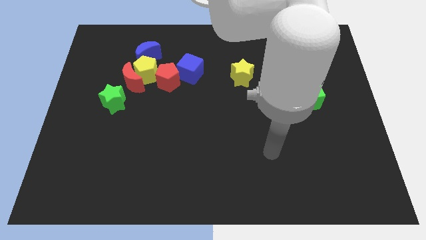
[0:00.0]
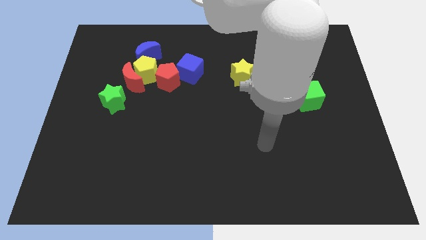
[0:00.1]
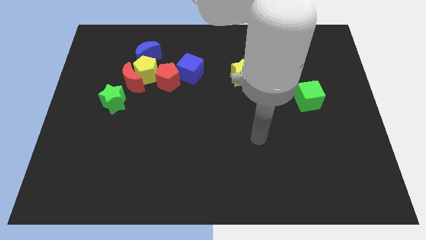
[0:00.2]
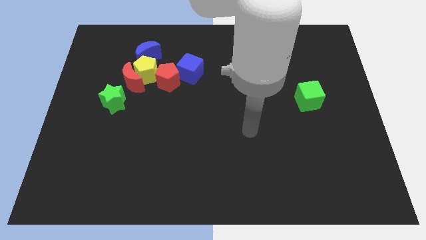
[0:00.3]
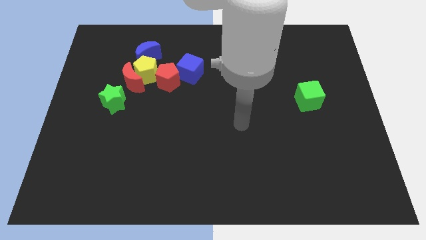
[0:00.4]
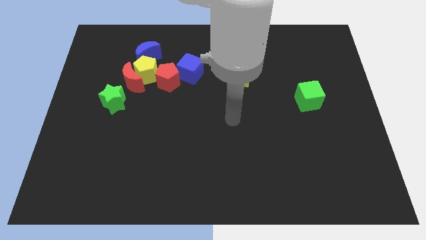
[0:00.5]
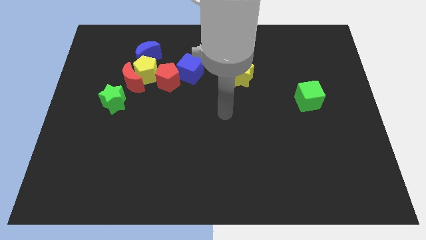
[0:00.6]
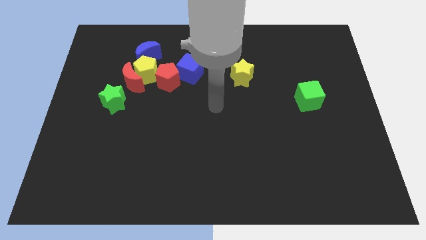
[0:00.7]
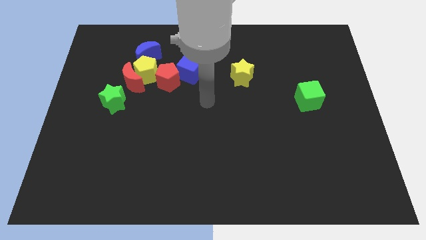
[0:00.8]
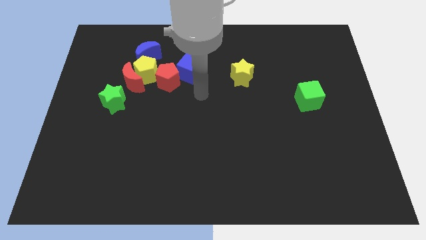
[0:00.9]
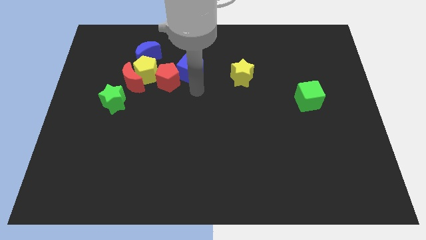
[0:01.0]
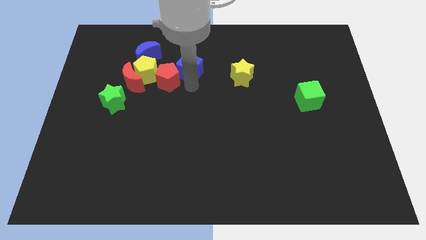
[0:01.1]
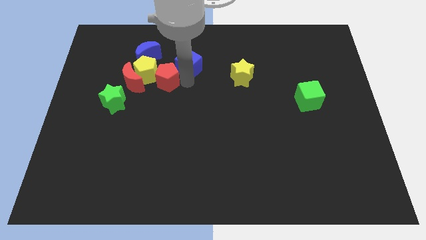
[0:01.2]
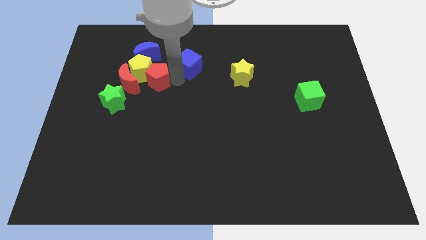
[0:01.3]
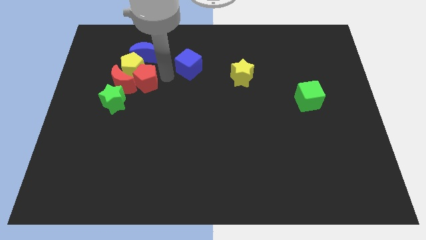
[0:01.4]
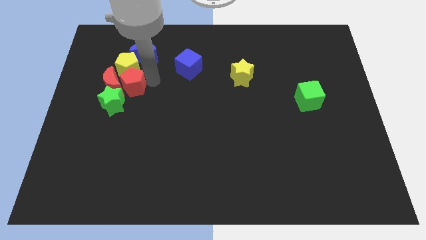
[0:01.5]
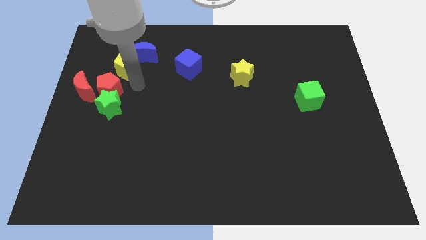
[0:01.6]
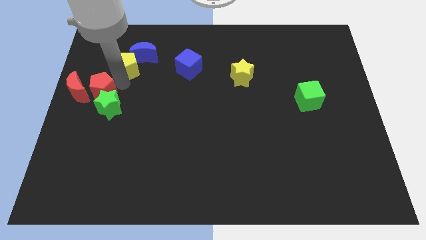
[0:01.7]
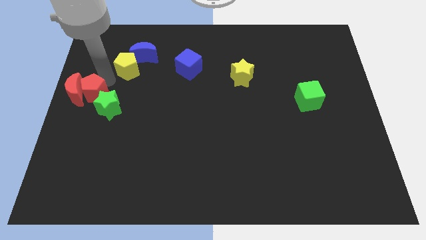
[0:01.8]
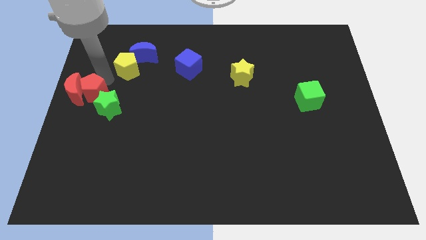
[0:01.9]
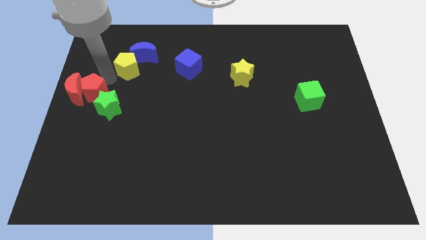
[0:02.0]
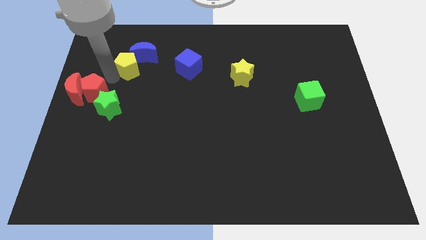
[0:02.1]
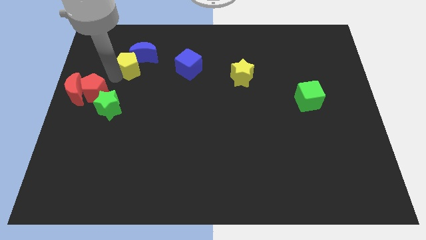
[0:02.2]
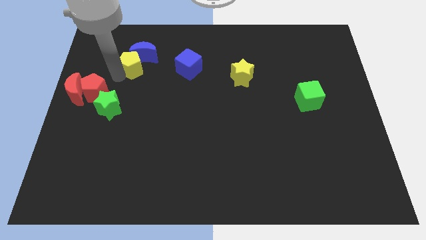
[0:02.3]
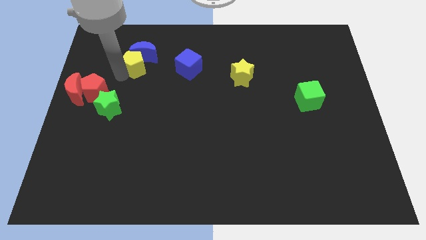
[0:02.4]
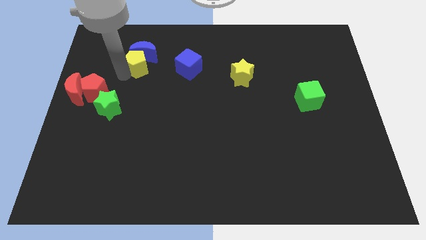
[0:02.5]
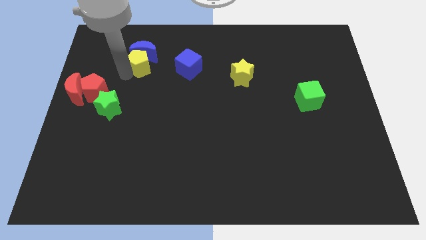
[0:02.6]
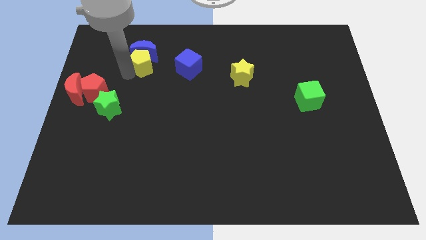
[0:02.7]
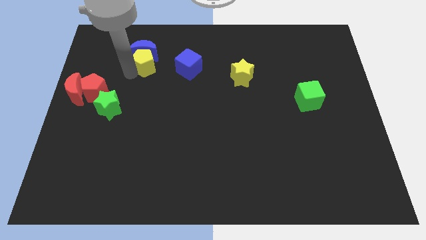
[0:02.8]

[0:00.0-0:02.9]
separate the yellow pentagon from the group

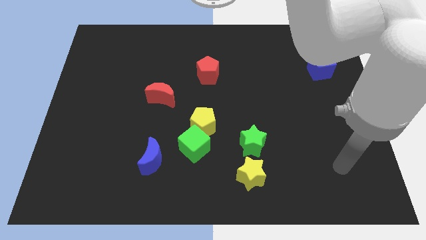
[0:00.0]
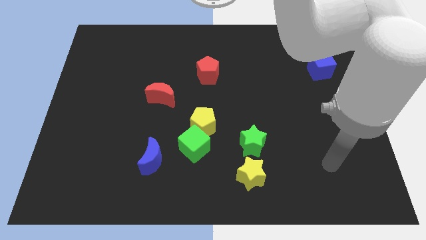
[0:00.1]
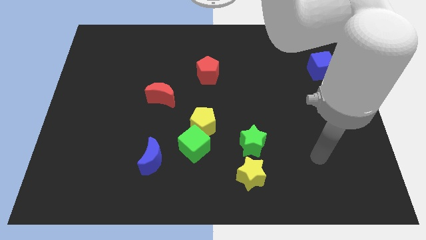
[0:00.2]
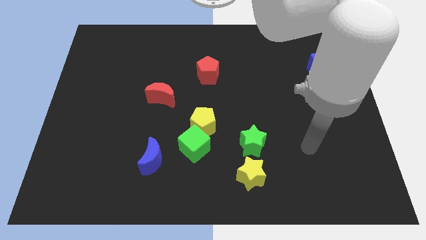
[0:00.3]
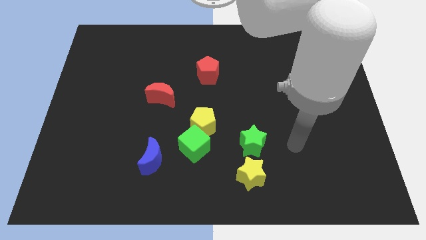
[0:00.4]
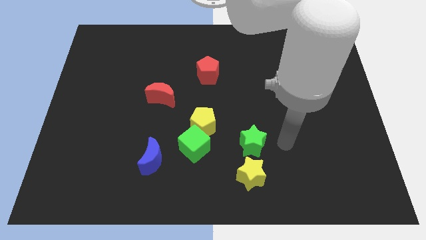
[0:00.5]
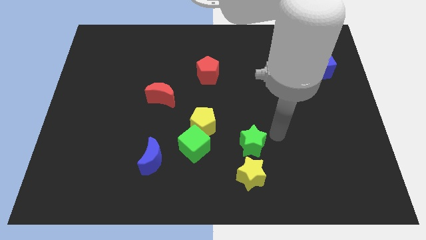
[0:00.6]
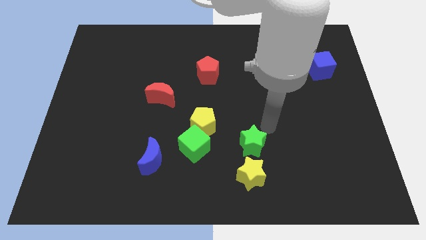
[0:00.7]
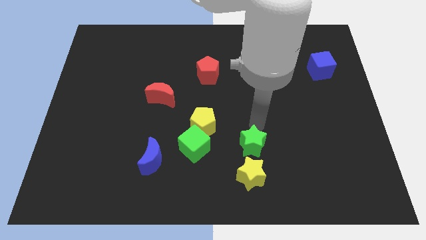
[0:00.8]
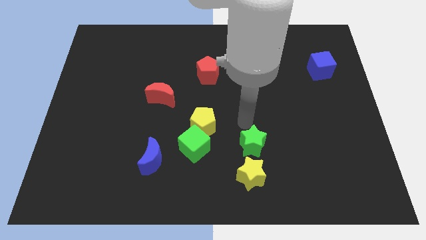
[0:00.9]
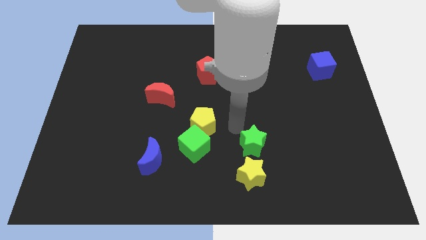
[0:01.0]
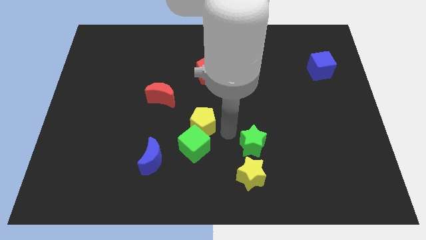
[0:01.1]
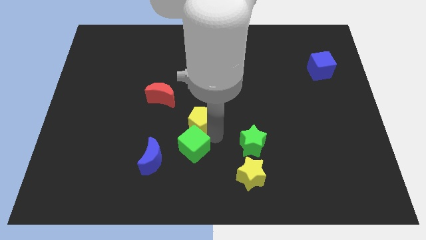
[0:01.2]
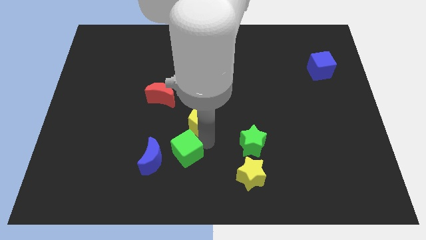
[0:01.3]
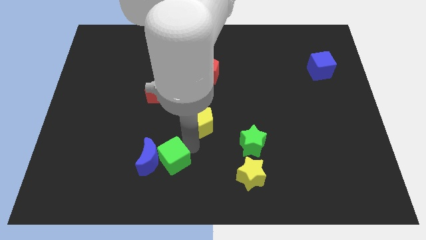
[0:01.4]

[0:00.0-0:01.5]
separate the yellow pentagon from the green cube

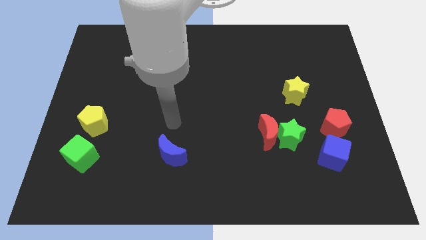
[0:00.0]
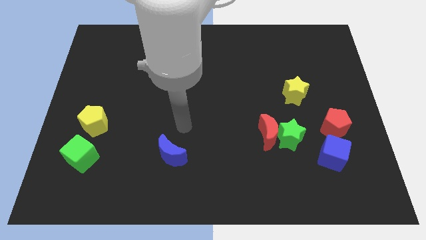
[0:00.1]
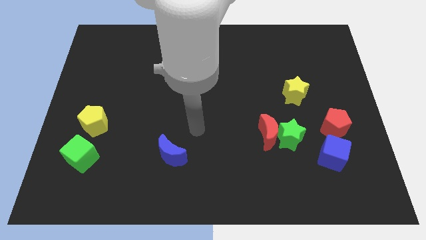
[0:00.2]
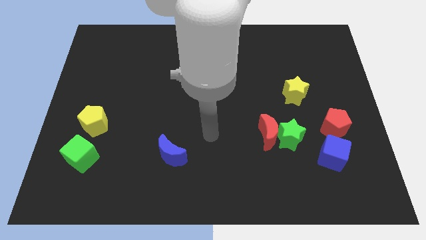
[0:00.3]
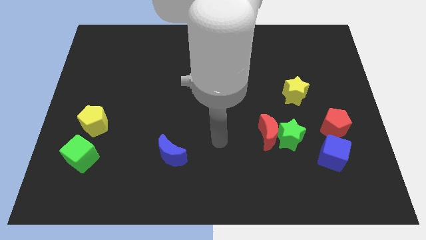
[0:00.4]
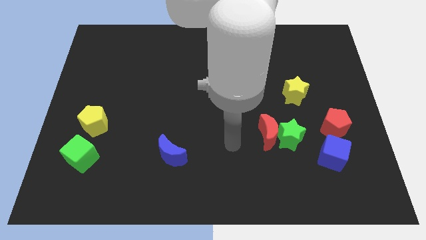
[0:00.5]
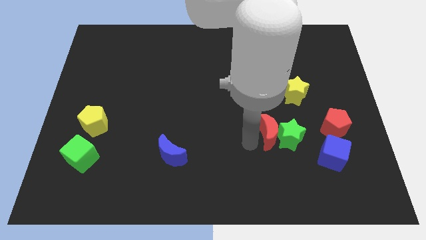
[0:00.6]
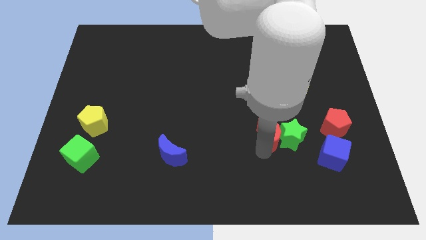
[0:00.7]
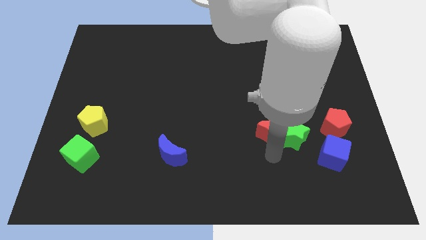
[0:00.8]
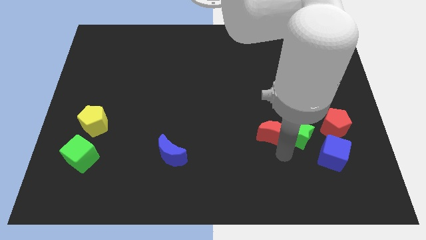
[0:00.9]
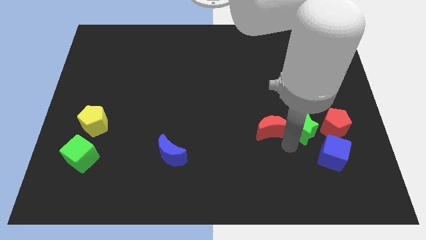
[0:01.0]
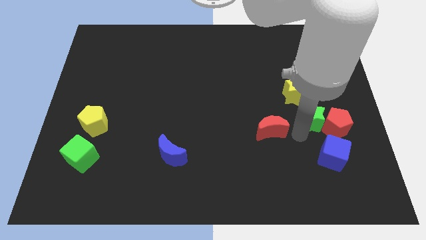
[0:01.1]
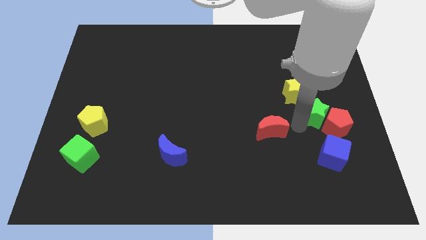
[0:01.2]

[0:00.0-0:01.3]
separate the red moon from the green star

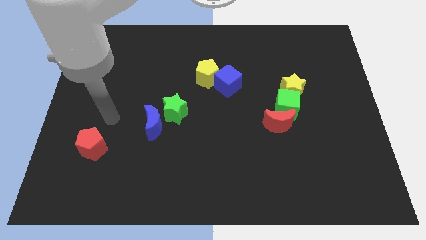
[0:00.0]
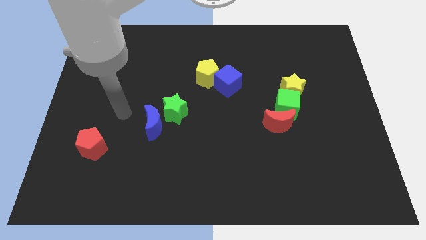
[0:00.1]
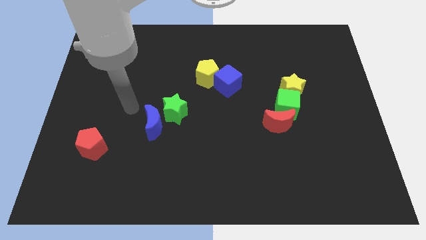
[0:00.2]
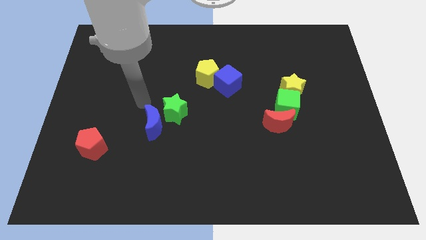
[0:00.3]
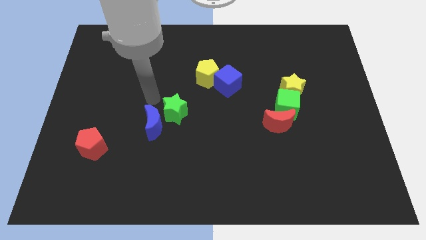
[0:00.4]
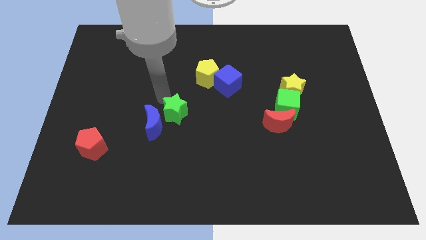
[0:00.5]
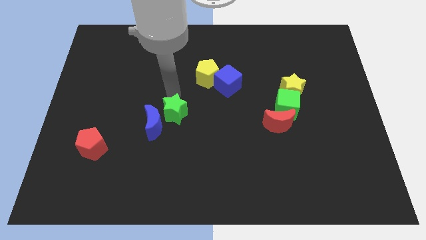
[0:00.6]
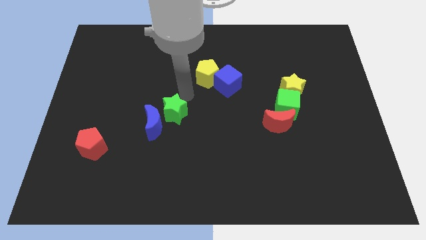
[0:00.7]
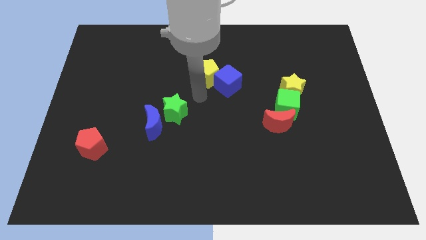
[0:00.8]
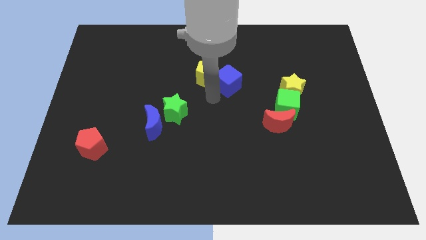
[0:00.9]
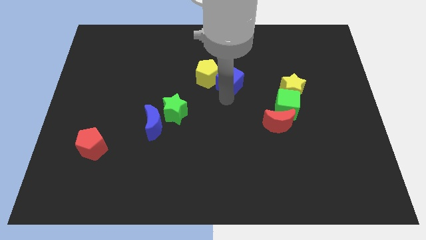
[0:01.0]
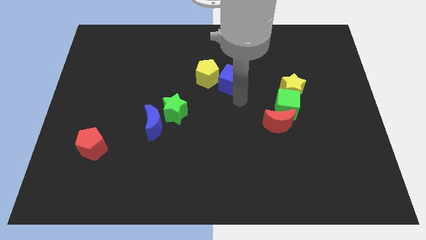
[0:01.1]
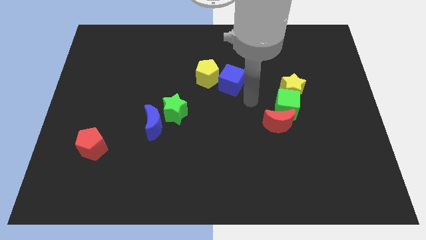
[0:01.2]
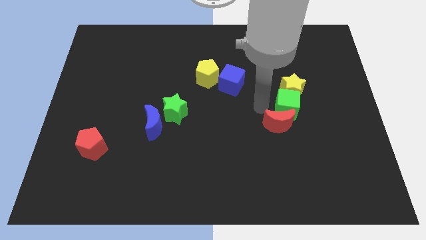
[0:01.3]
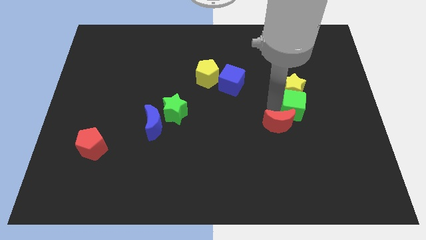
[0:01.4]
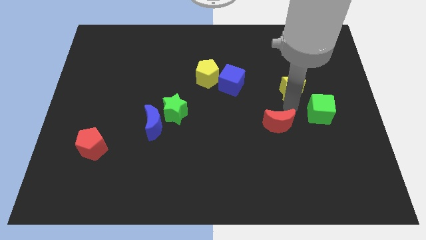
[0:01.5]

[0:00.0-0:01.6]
separate the red moon from the green cube

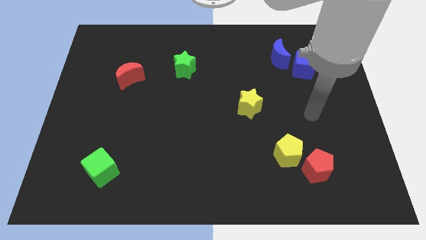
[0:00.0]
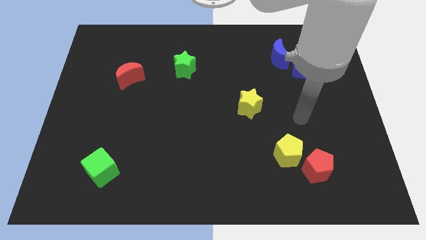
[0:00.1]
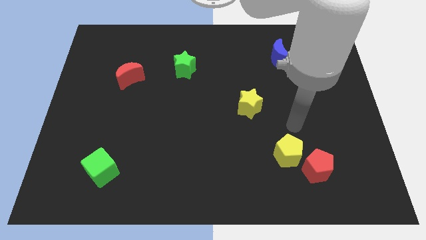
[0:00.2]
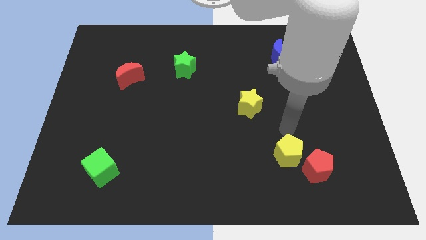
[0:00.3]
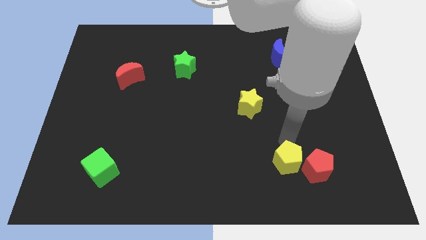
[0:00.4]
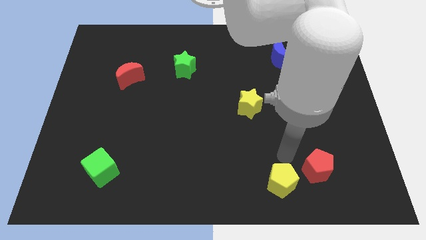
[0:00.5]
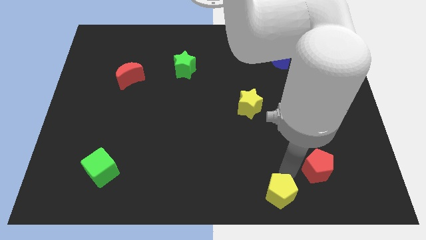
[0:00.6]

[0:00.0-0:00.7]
pull the red pentagon apart from the yellow pentagon

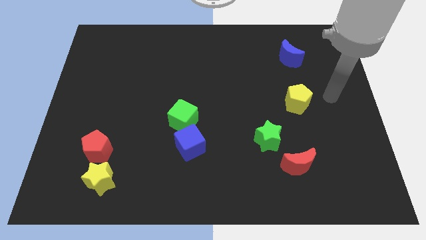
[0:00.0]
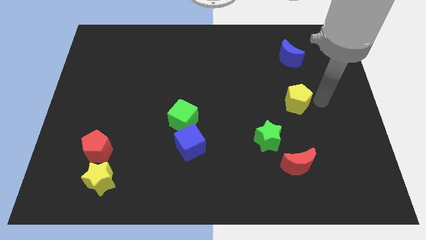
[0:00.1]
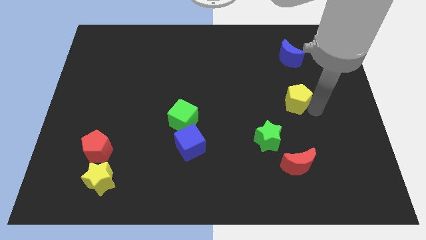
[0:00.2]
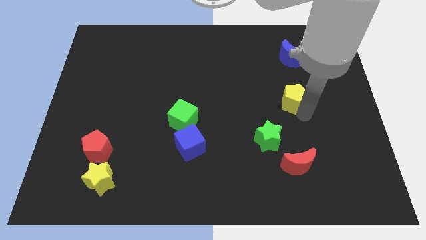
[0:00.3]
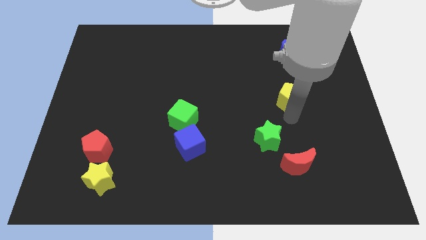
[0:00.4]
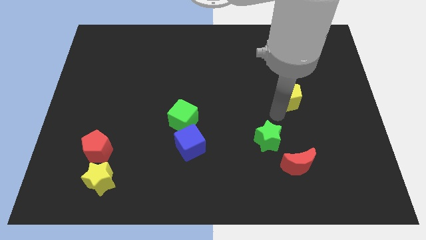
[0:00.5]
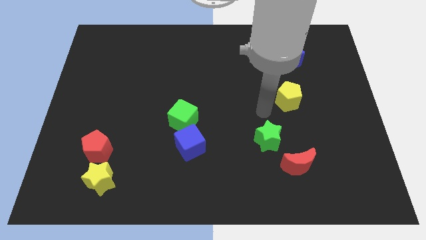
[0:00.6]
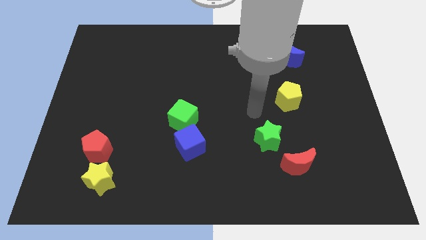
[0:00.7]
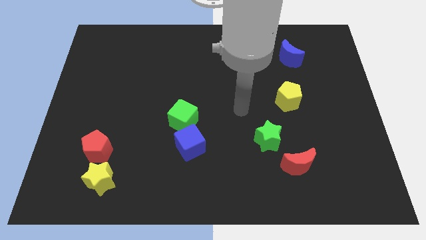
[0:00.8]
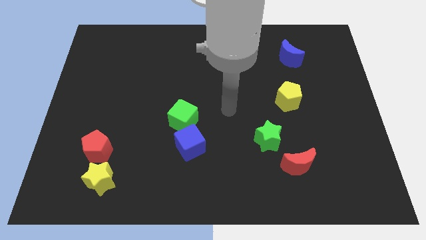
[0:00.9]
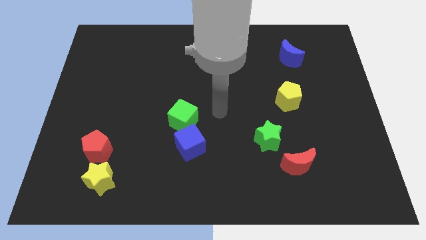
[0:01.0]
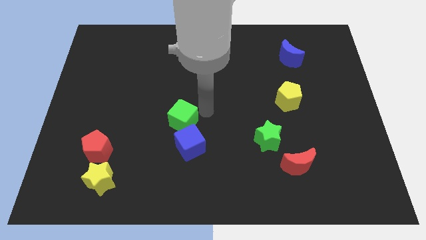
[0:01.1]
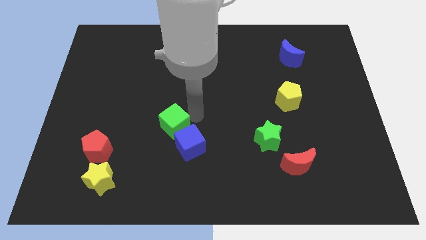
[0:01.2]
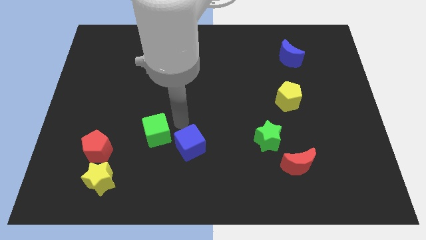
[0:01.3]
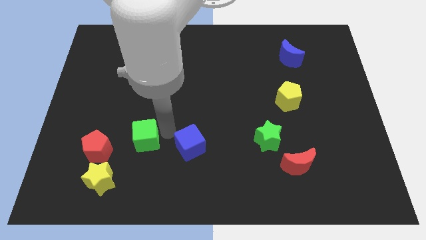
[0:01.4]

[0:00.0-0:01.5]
separate the blue cube from the green cube

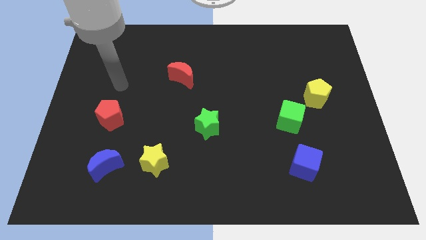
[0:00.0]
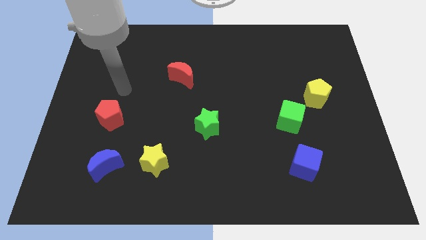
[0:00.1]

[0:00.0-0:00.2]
separate the green cube from the yellow pentagon
